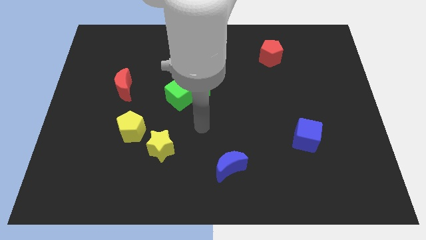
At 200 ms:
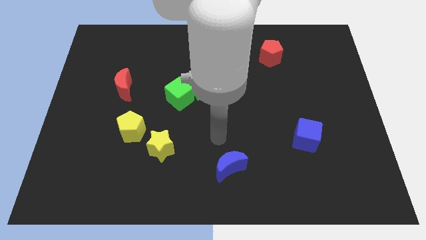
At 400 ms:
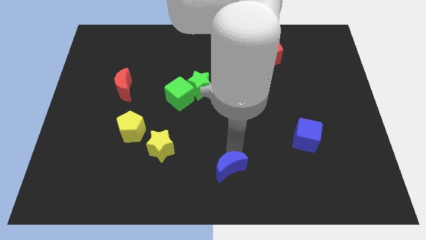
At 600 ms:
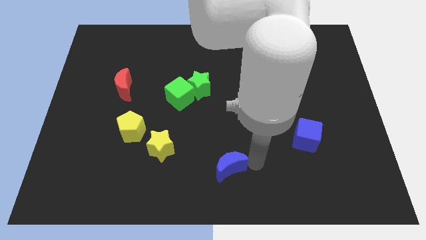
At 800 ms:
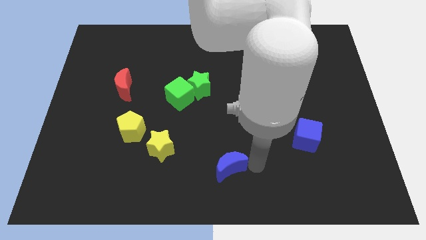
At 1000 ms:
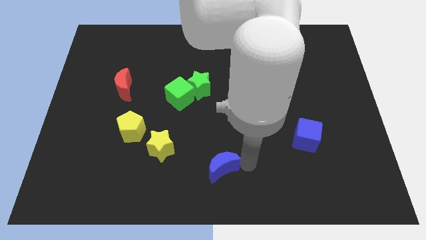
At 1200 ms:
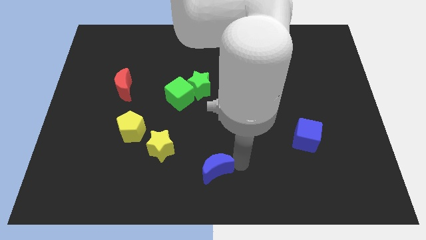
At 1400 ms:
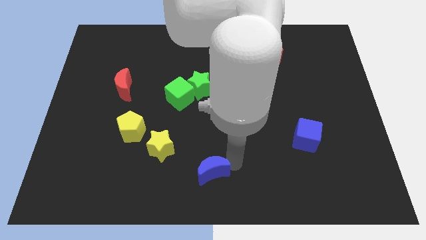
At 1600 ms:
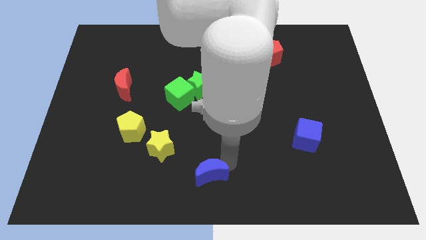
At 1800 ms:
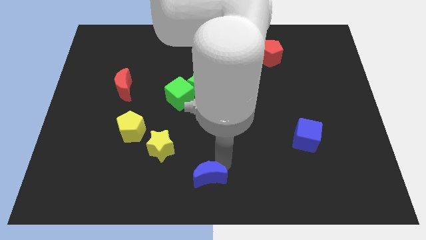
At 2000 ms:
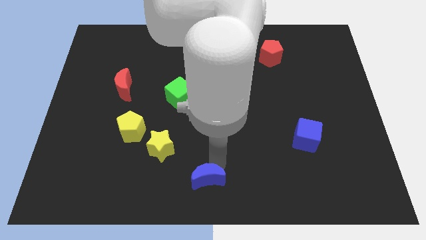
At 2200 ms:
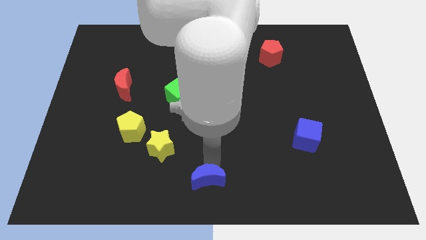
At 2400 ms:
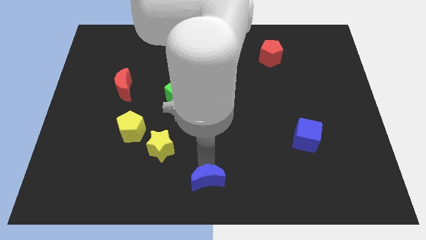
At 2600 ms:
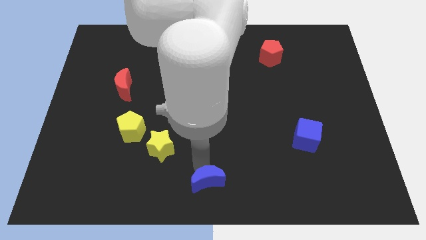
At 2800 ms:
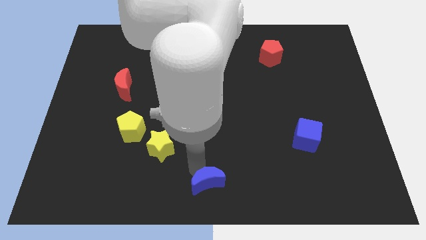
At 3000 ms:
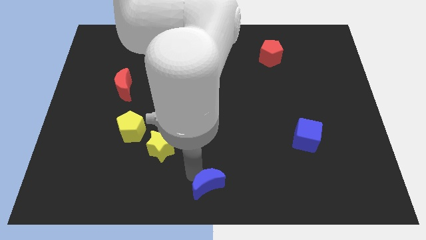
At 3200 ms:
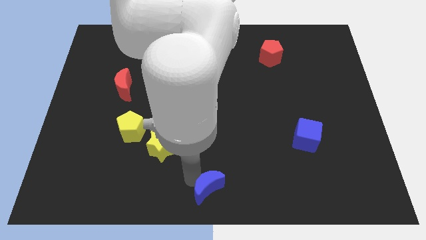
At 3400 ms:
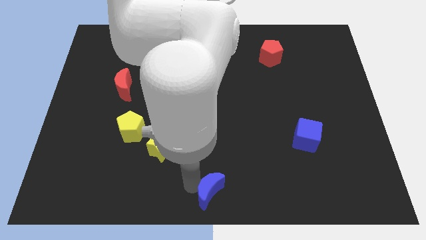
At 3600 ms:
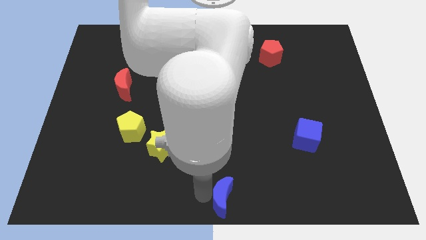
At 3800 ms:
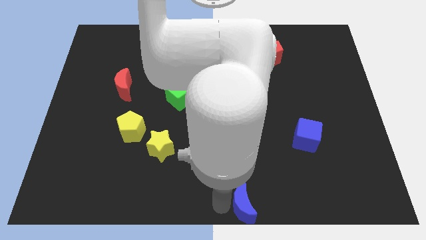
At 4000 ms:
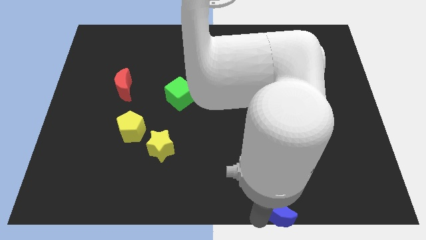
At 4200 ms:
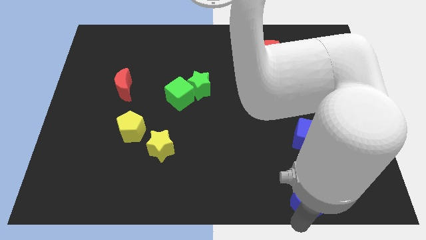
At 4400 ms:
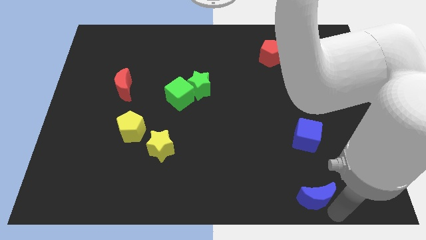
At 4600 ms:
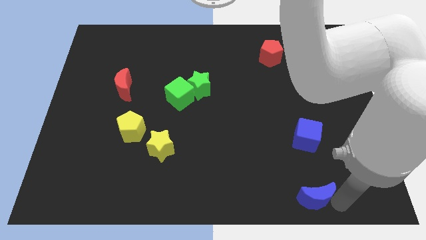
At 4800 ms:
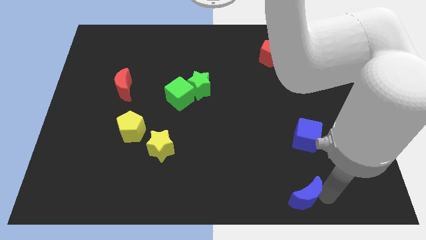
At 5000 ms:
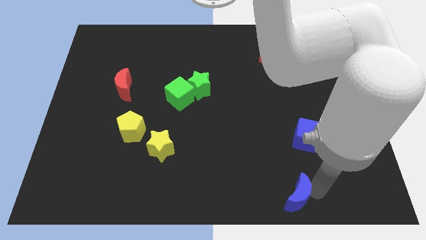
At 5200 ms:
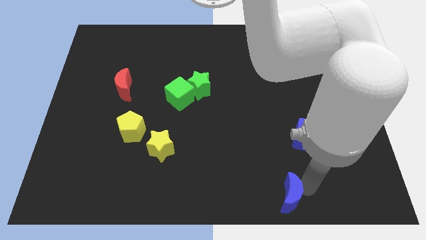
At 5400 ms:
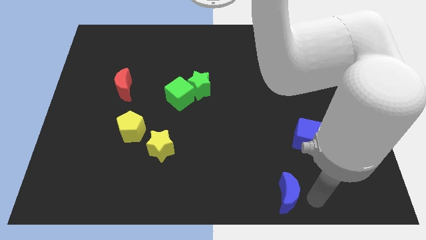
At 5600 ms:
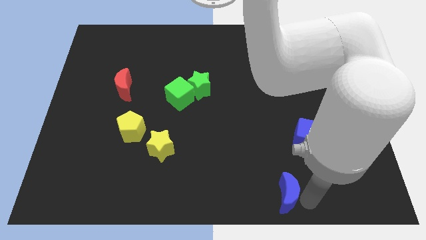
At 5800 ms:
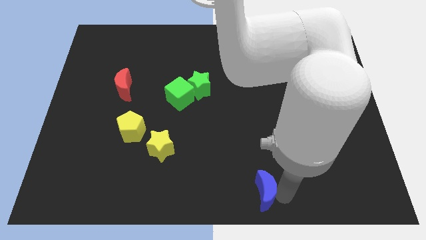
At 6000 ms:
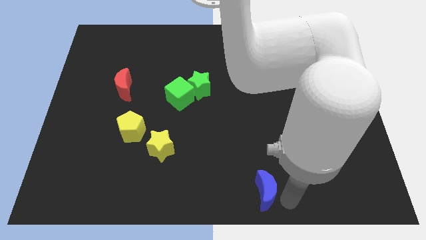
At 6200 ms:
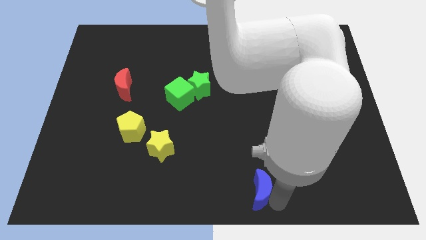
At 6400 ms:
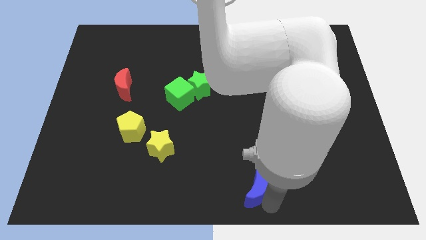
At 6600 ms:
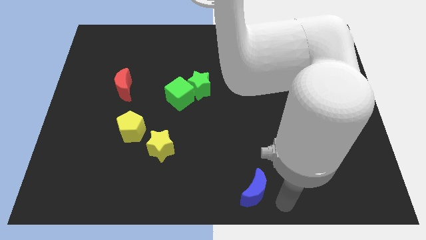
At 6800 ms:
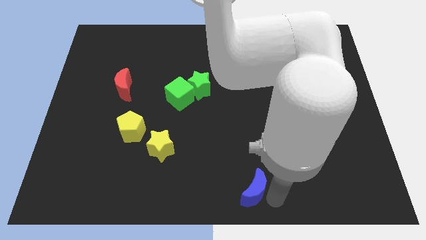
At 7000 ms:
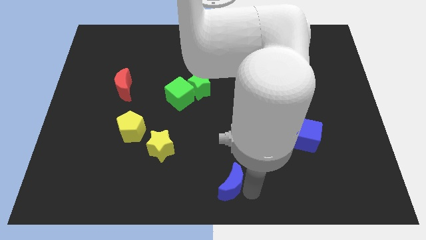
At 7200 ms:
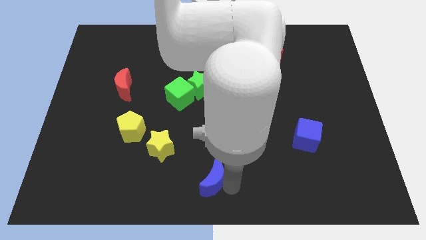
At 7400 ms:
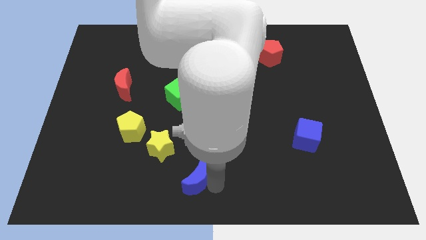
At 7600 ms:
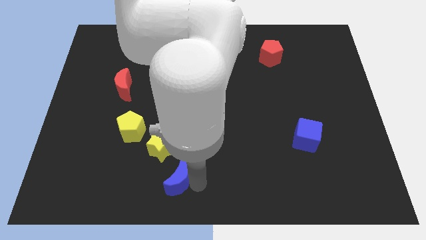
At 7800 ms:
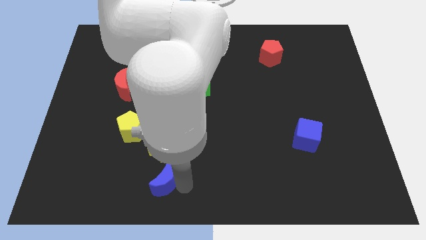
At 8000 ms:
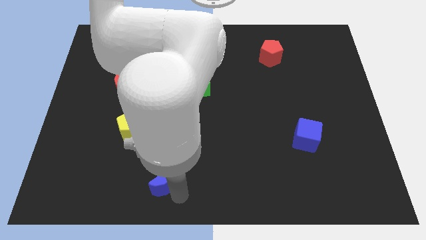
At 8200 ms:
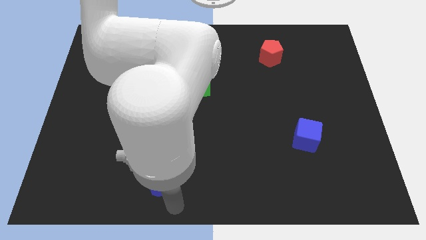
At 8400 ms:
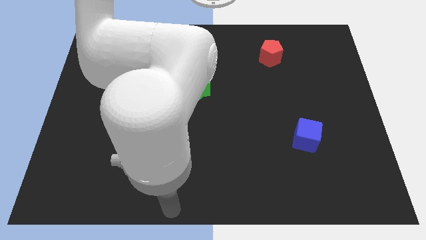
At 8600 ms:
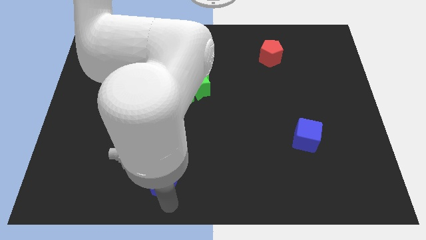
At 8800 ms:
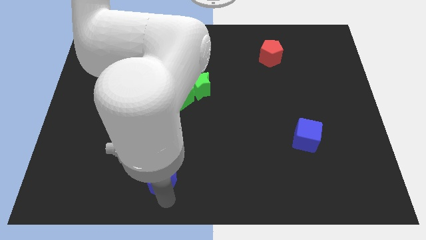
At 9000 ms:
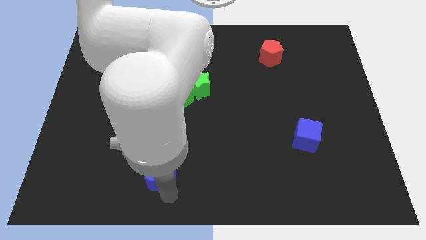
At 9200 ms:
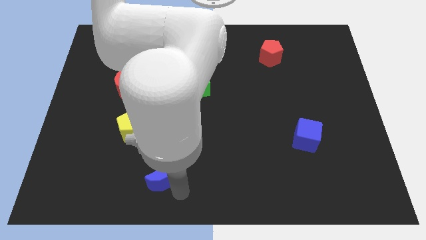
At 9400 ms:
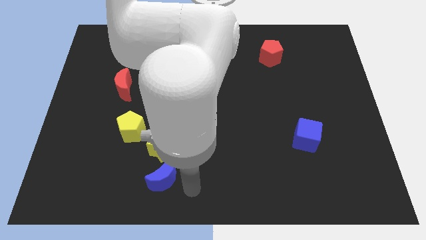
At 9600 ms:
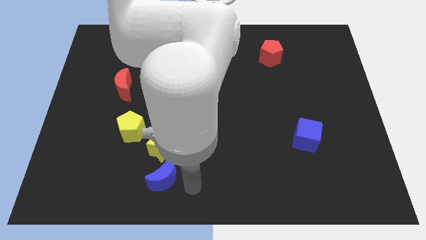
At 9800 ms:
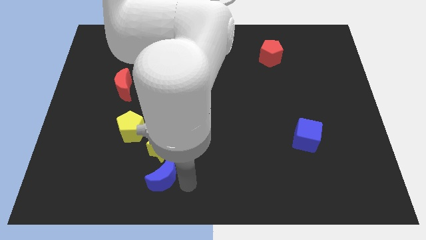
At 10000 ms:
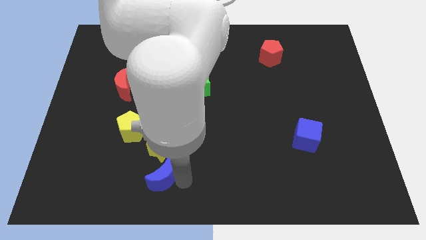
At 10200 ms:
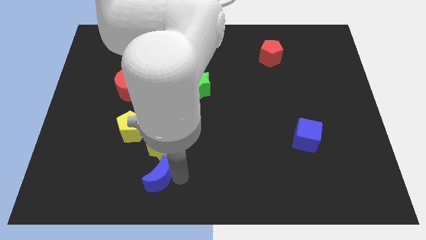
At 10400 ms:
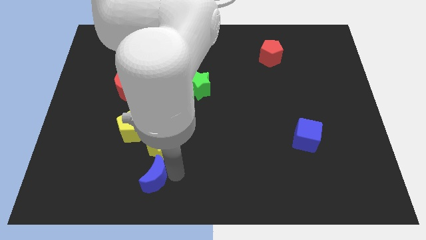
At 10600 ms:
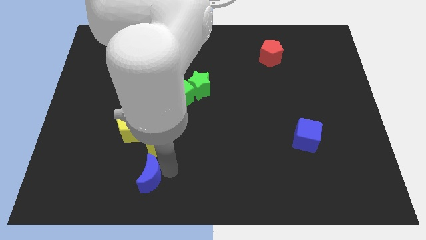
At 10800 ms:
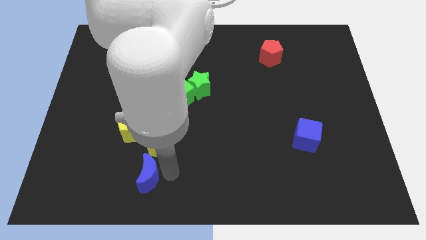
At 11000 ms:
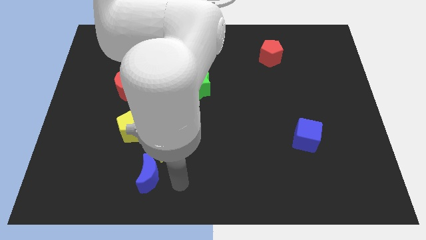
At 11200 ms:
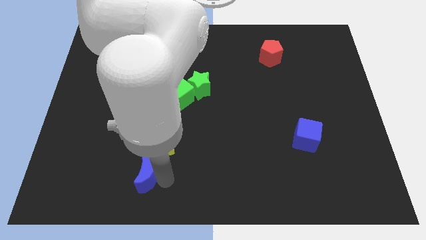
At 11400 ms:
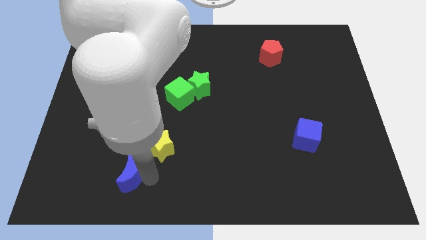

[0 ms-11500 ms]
slide the blue moon to the left

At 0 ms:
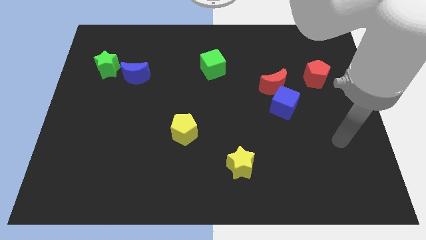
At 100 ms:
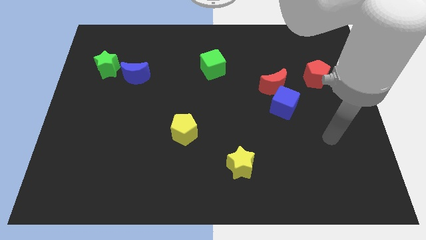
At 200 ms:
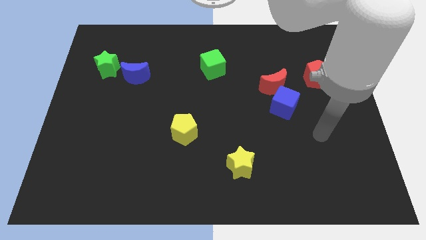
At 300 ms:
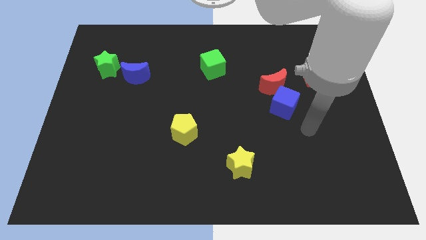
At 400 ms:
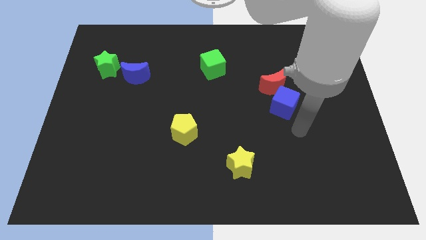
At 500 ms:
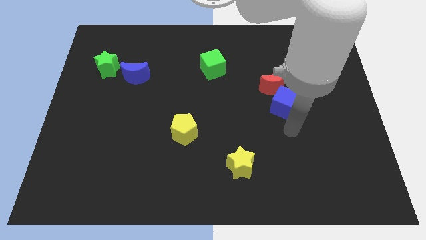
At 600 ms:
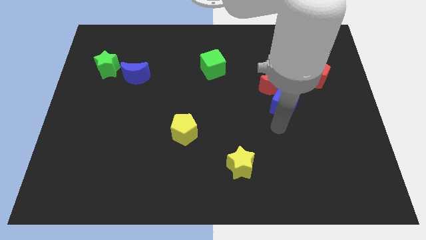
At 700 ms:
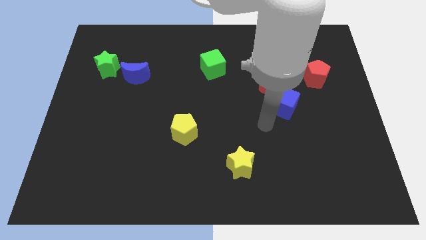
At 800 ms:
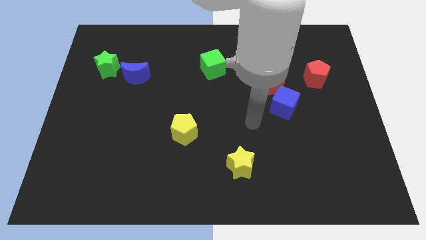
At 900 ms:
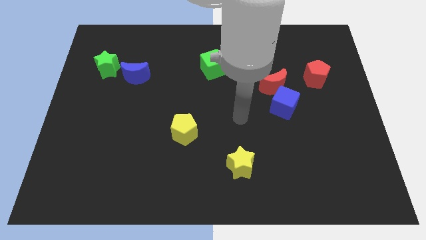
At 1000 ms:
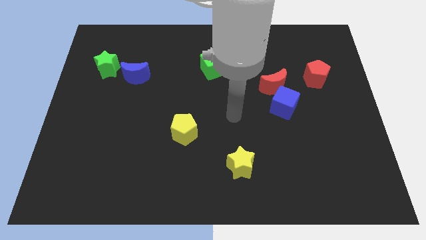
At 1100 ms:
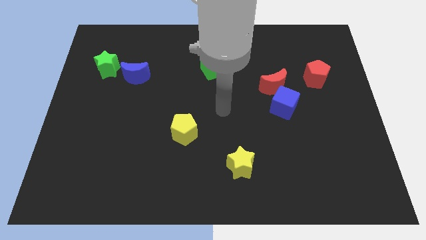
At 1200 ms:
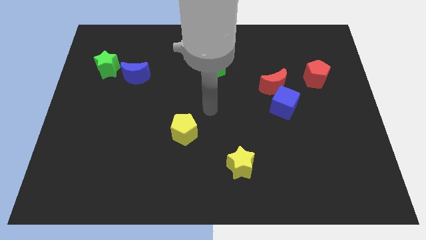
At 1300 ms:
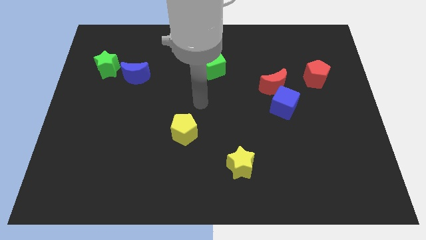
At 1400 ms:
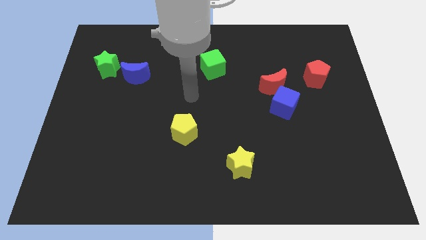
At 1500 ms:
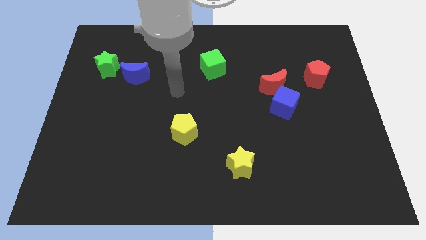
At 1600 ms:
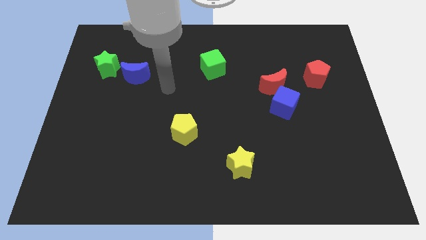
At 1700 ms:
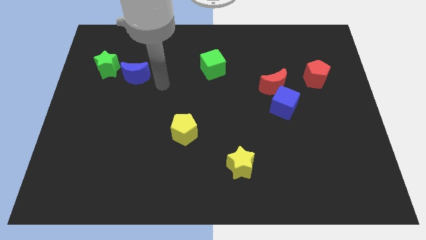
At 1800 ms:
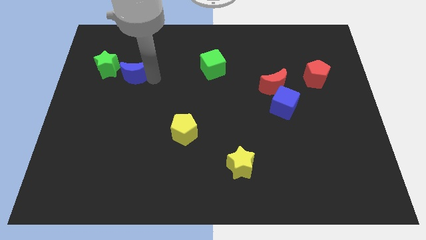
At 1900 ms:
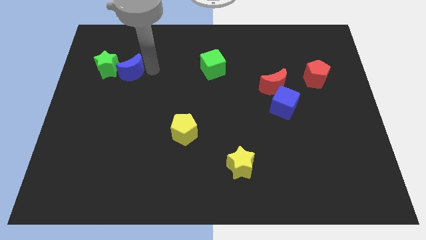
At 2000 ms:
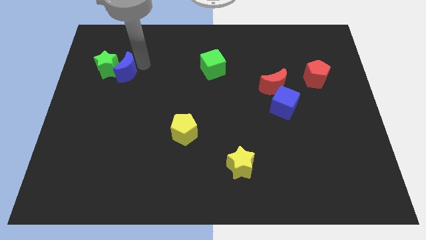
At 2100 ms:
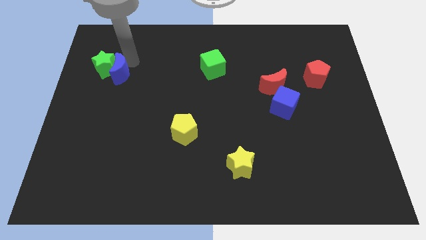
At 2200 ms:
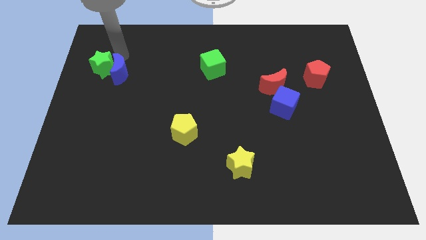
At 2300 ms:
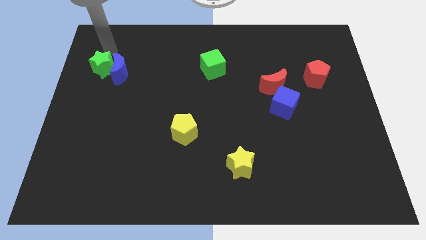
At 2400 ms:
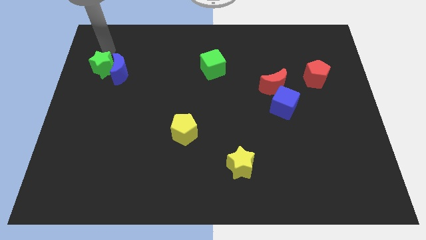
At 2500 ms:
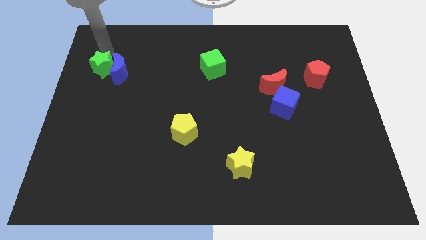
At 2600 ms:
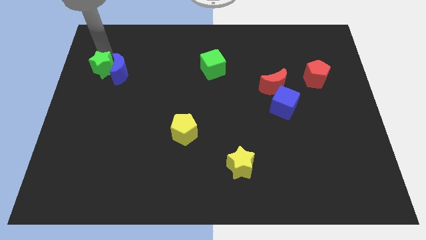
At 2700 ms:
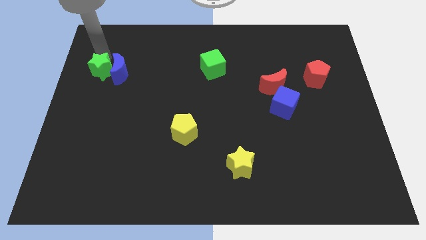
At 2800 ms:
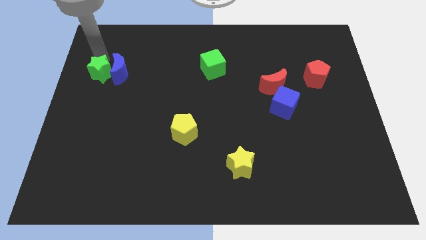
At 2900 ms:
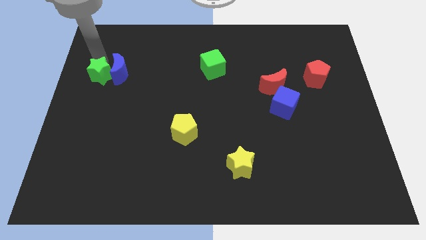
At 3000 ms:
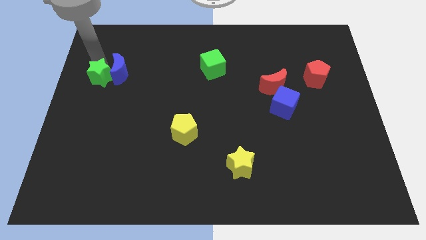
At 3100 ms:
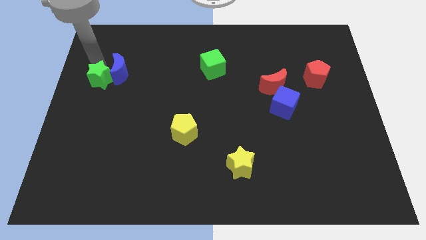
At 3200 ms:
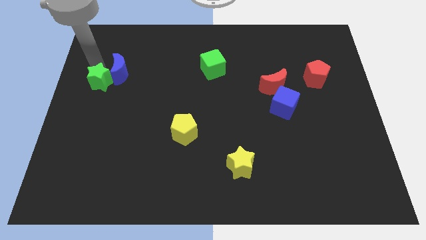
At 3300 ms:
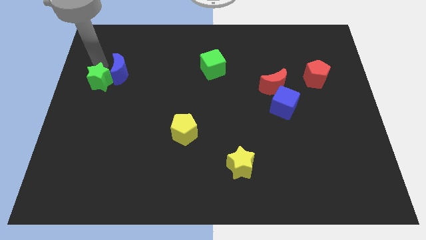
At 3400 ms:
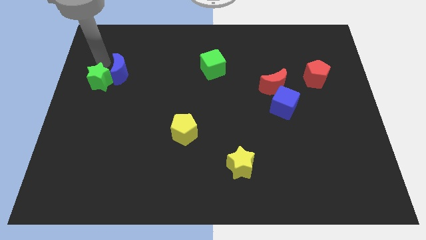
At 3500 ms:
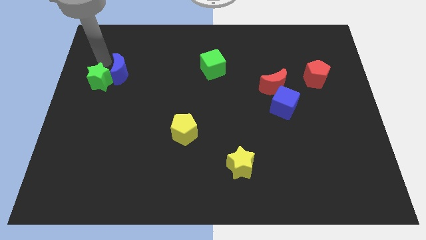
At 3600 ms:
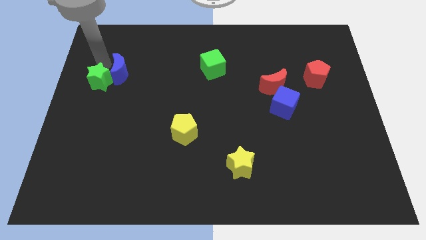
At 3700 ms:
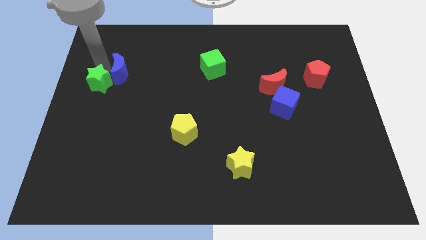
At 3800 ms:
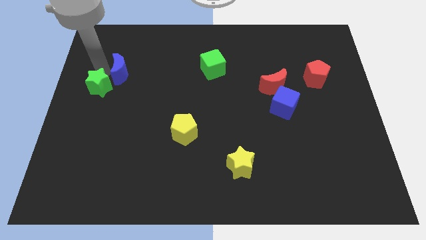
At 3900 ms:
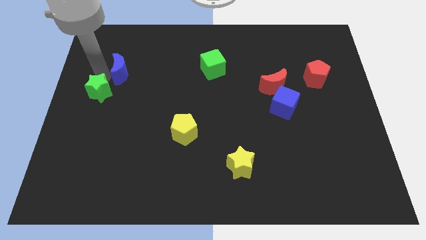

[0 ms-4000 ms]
slide the green star downwards a bit
